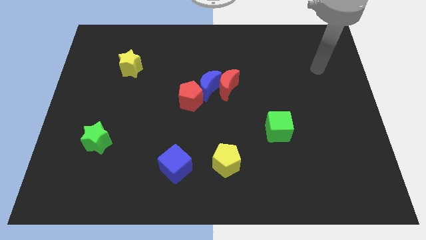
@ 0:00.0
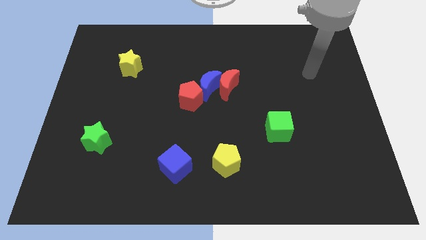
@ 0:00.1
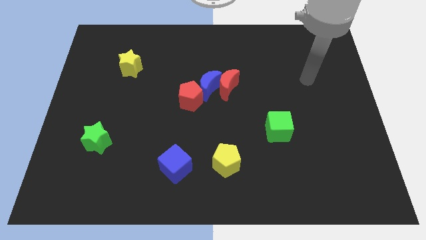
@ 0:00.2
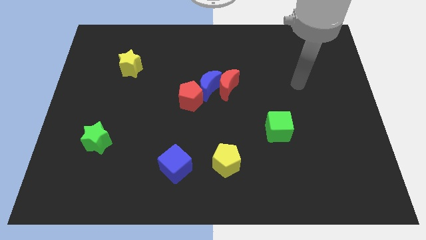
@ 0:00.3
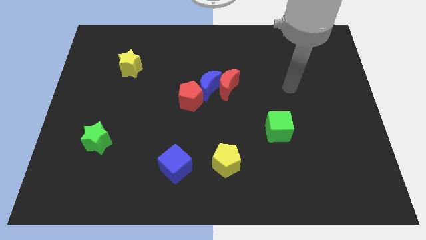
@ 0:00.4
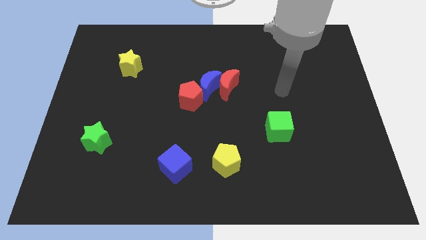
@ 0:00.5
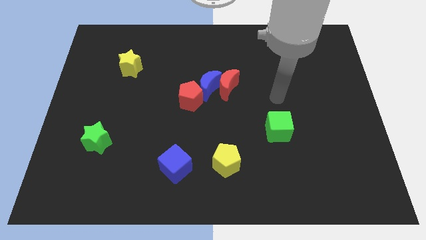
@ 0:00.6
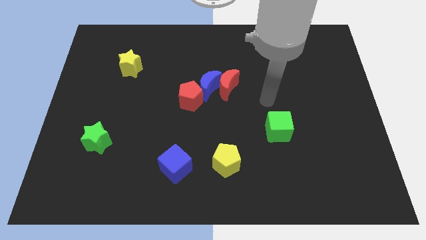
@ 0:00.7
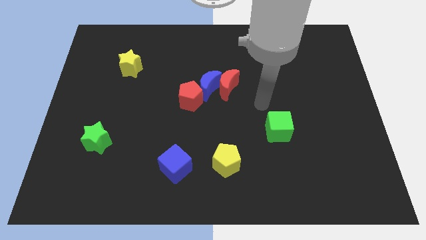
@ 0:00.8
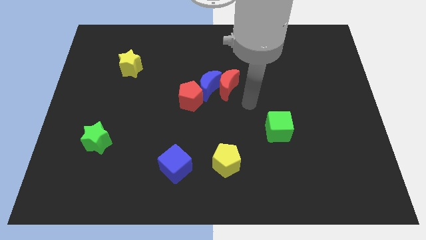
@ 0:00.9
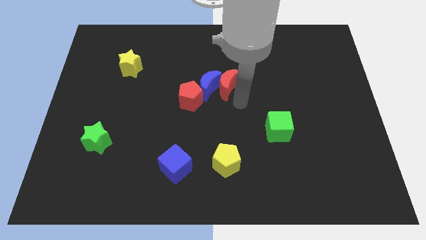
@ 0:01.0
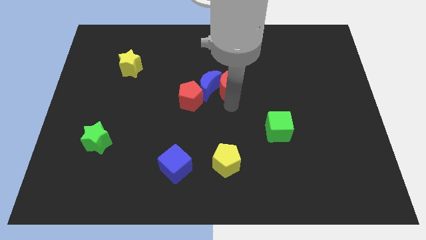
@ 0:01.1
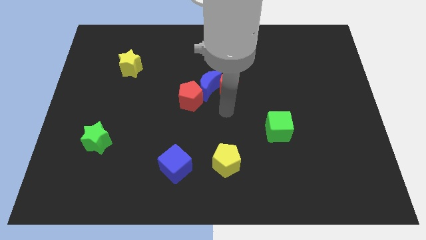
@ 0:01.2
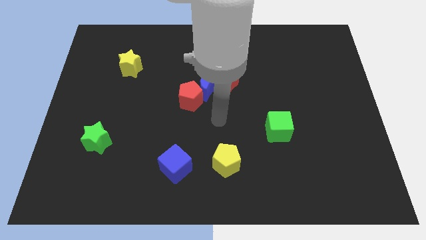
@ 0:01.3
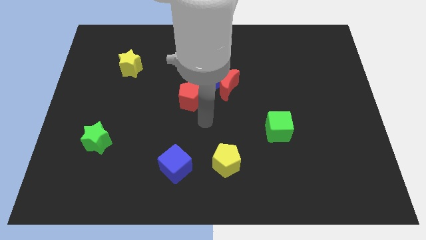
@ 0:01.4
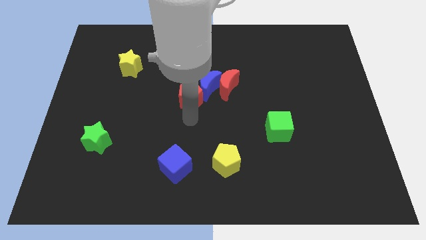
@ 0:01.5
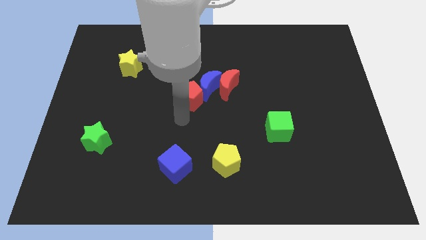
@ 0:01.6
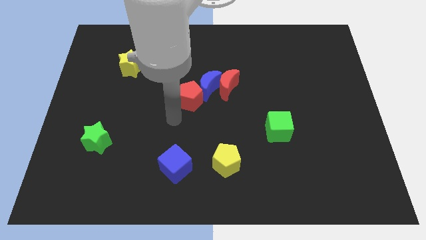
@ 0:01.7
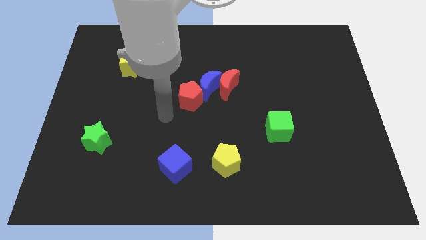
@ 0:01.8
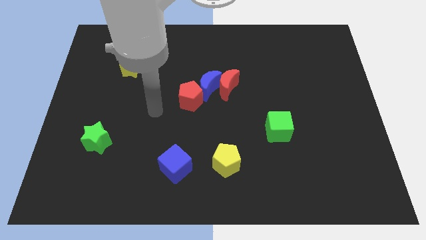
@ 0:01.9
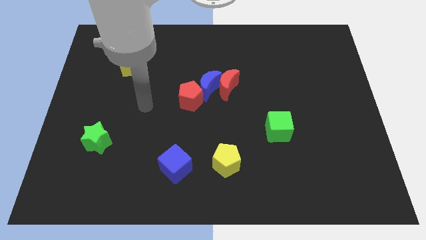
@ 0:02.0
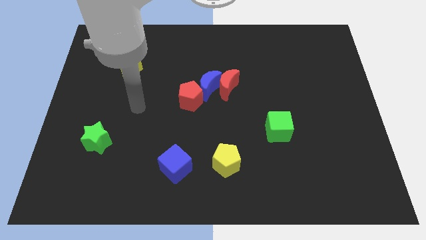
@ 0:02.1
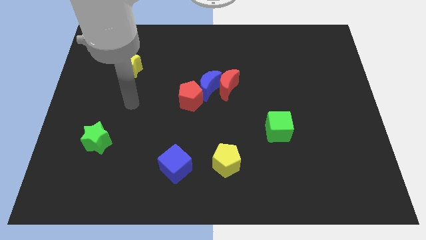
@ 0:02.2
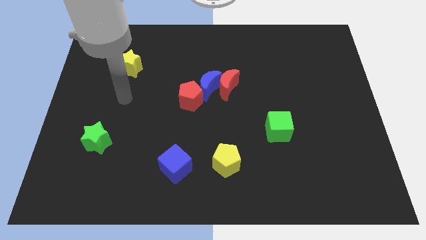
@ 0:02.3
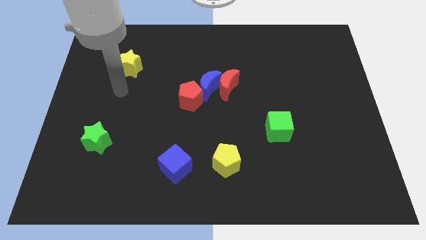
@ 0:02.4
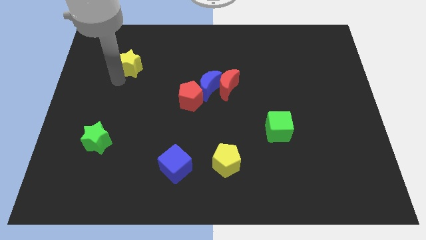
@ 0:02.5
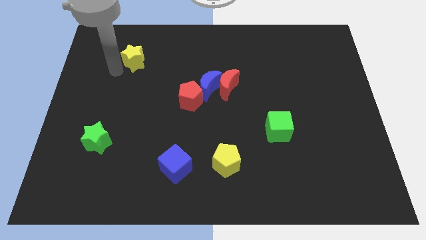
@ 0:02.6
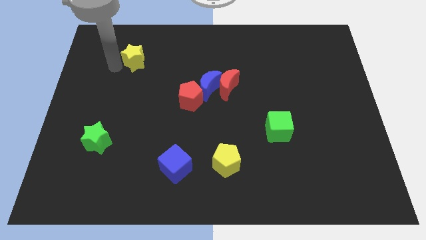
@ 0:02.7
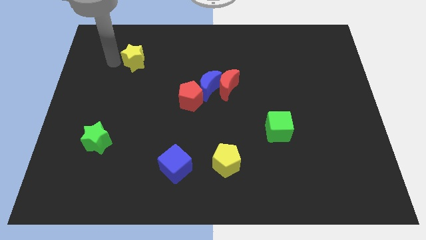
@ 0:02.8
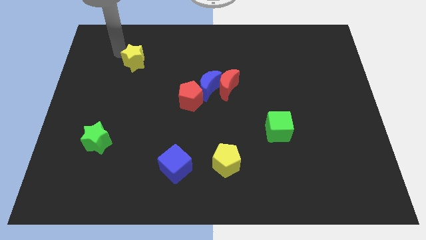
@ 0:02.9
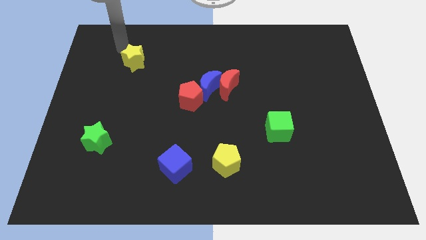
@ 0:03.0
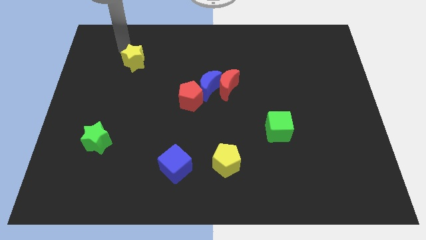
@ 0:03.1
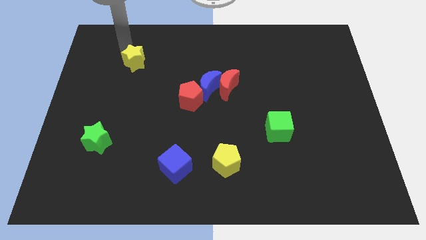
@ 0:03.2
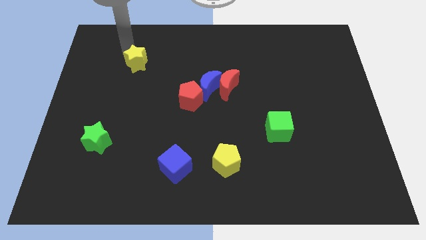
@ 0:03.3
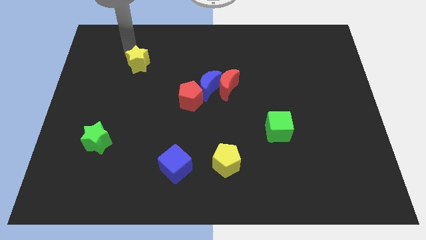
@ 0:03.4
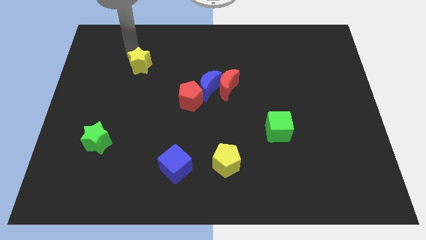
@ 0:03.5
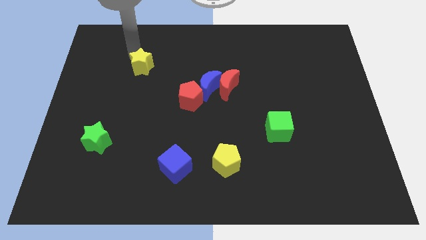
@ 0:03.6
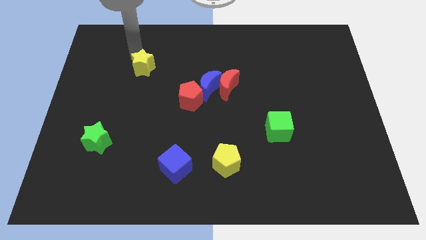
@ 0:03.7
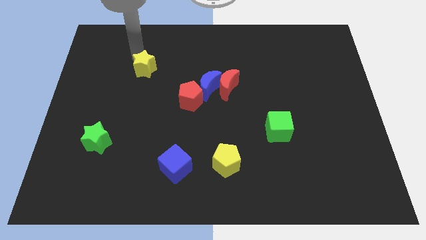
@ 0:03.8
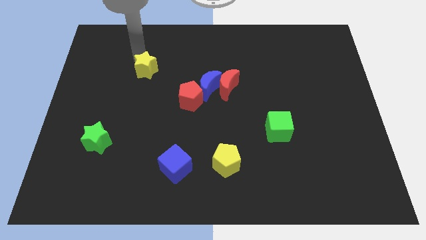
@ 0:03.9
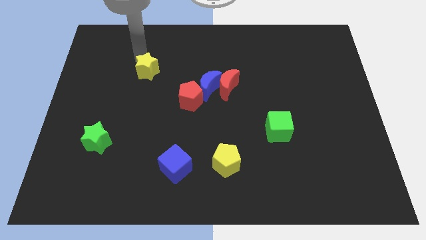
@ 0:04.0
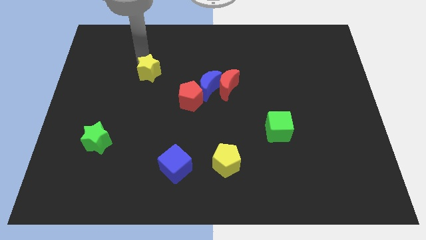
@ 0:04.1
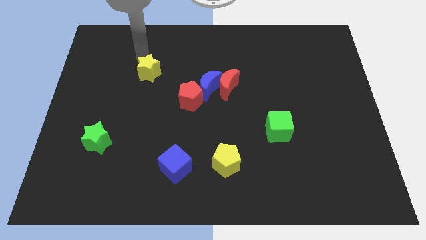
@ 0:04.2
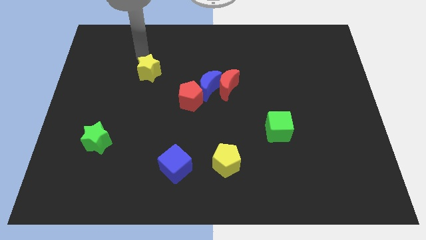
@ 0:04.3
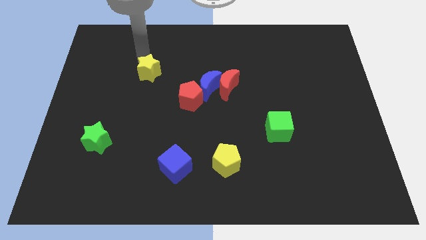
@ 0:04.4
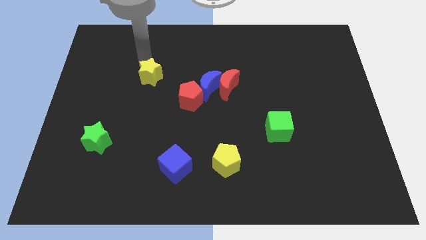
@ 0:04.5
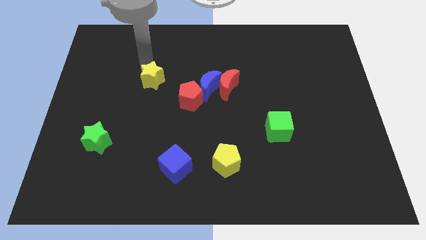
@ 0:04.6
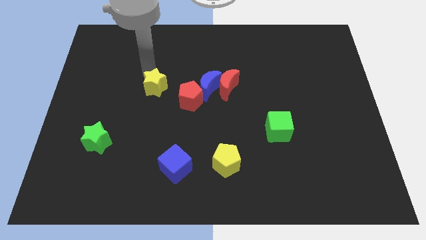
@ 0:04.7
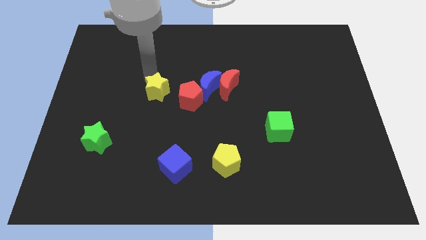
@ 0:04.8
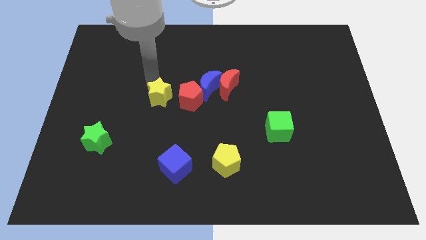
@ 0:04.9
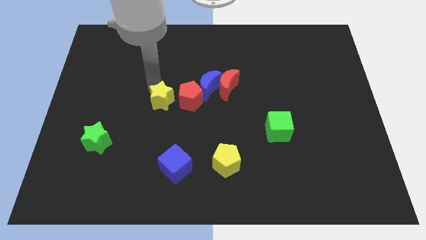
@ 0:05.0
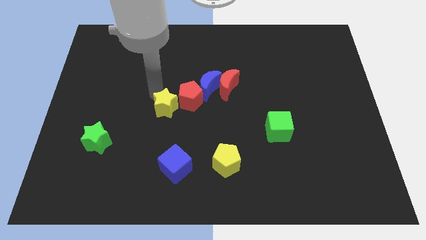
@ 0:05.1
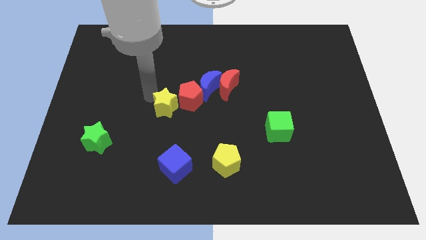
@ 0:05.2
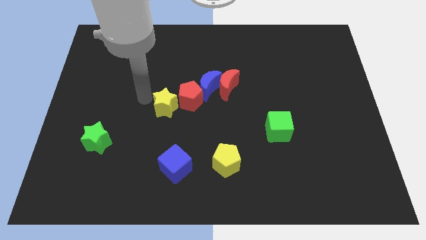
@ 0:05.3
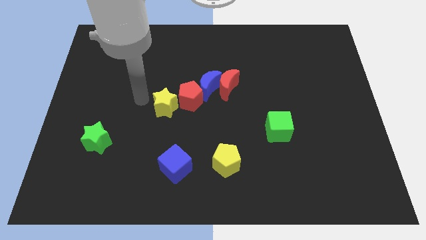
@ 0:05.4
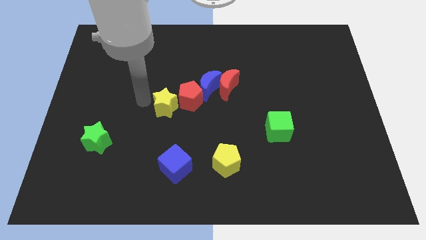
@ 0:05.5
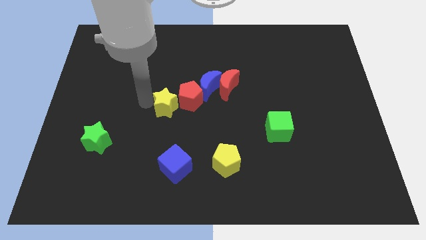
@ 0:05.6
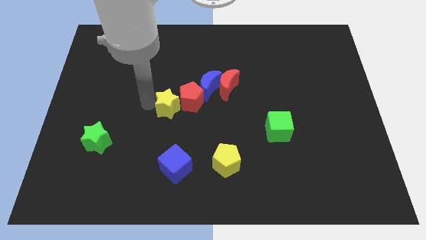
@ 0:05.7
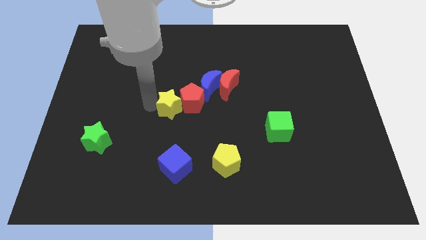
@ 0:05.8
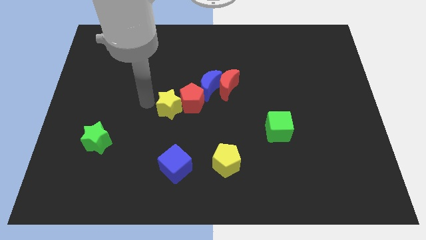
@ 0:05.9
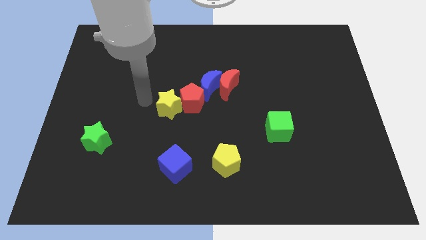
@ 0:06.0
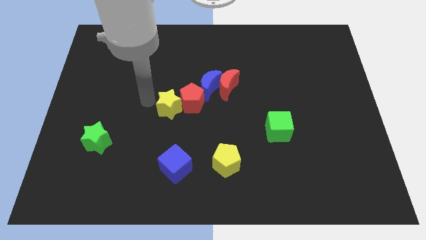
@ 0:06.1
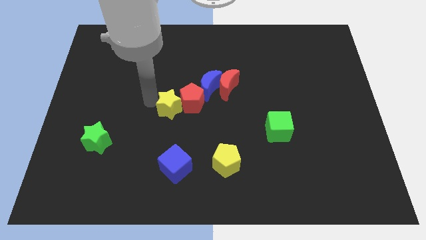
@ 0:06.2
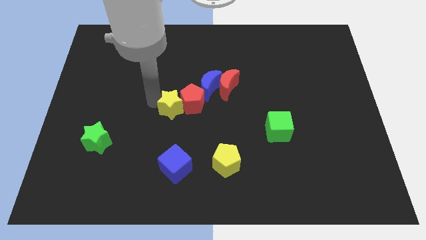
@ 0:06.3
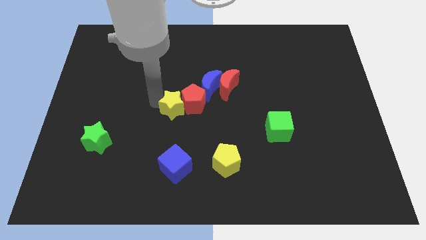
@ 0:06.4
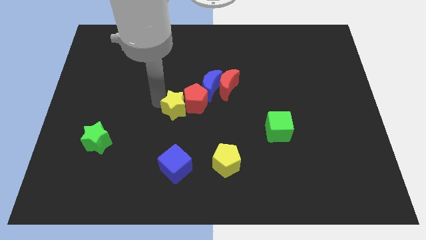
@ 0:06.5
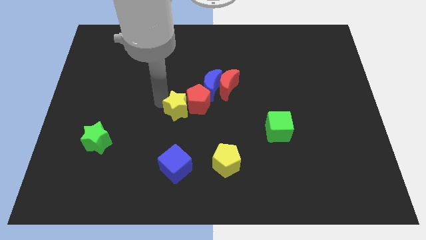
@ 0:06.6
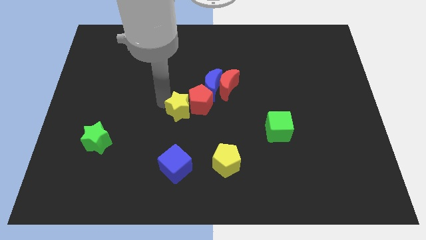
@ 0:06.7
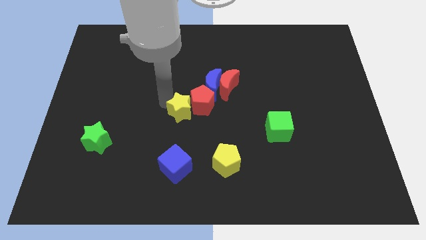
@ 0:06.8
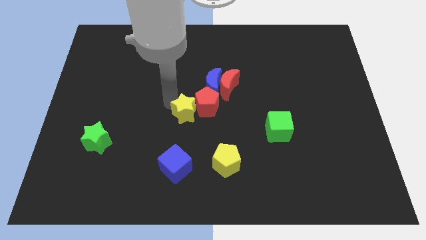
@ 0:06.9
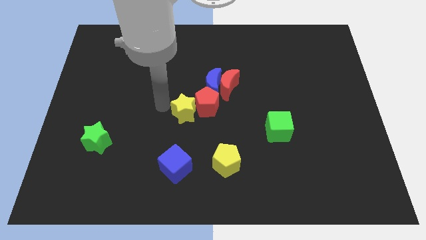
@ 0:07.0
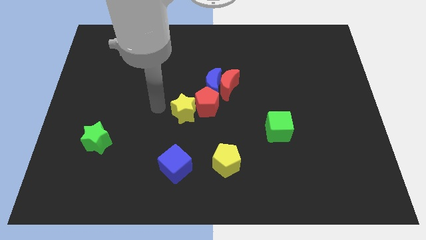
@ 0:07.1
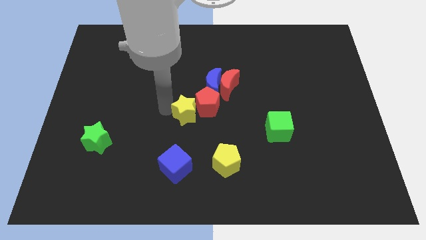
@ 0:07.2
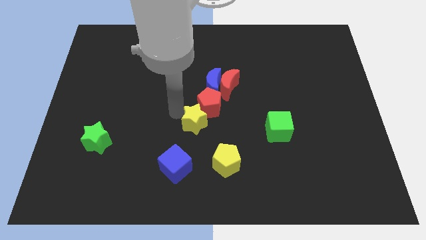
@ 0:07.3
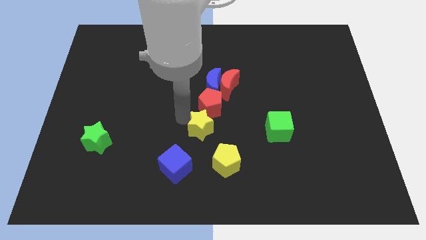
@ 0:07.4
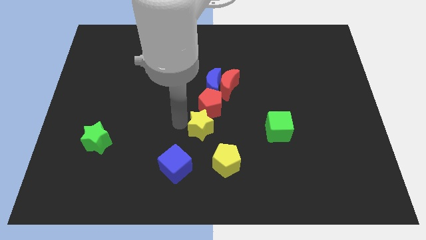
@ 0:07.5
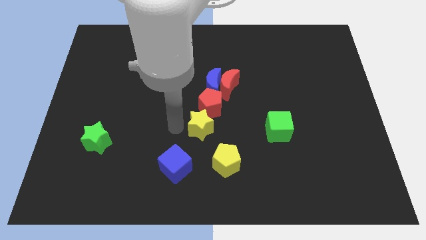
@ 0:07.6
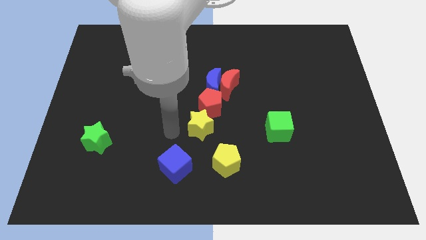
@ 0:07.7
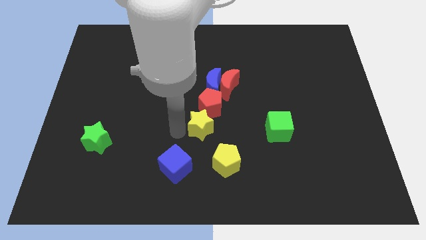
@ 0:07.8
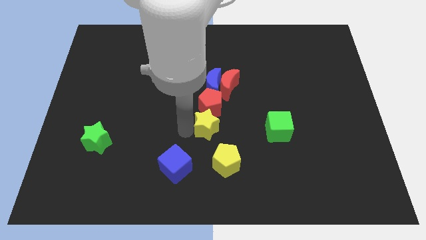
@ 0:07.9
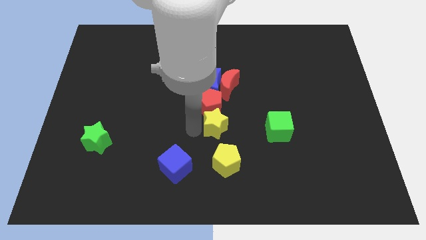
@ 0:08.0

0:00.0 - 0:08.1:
slide the yellow star to the bottom right side of the red pentagon
